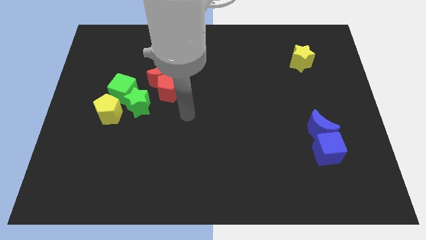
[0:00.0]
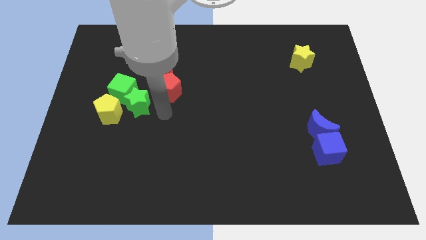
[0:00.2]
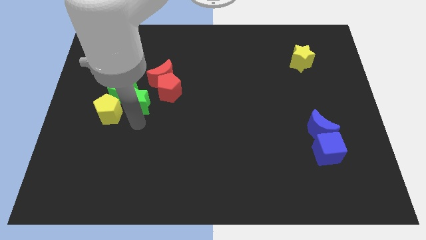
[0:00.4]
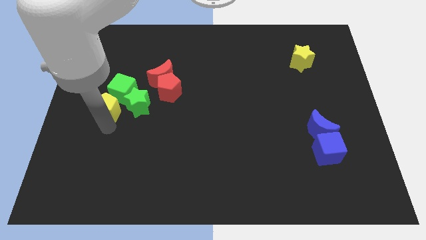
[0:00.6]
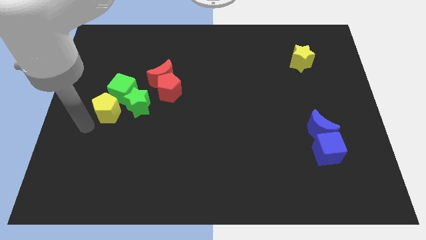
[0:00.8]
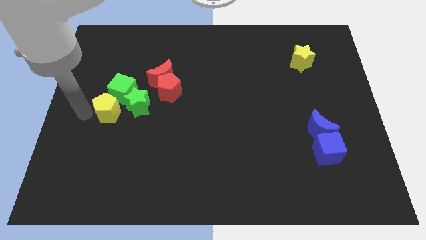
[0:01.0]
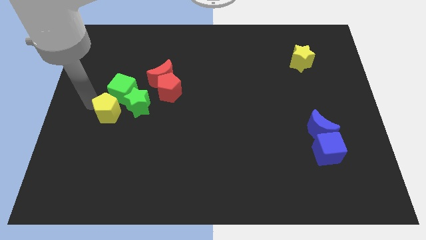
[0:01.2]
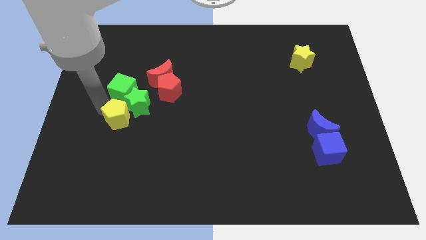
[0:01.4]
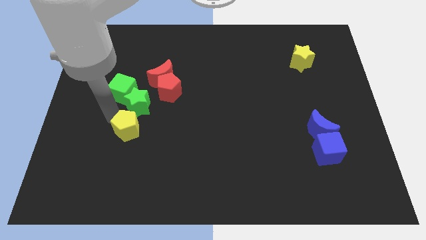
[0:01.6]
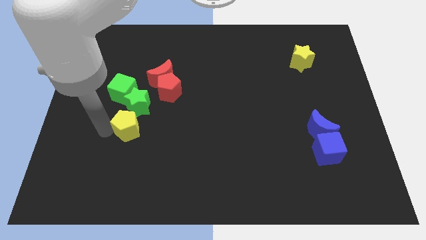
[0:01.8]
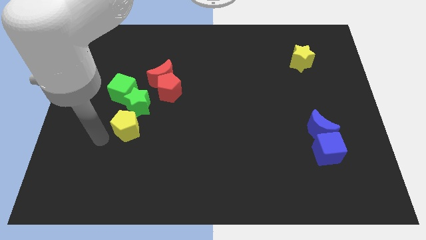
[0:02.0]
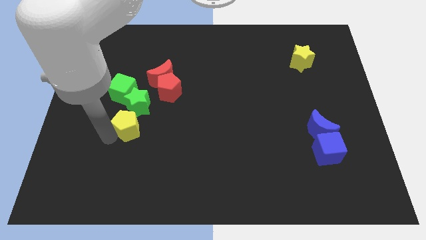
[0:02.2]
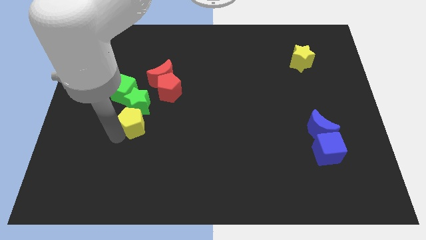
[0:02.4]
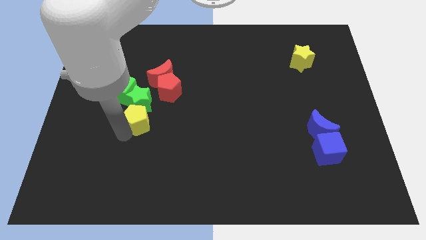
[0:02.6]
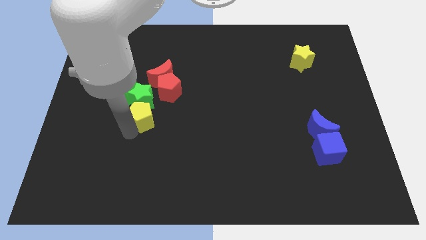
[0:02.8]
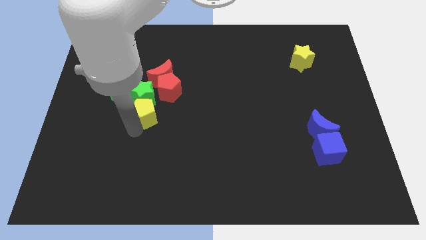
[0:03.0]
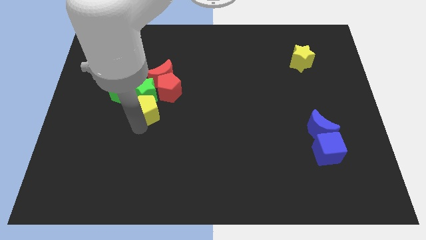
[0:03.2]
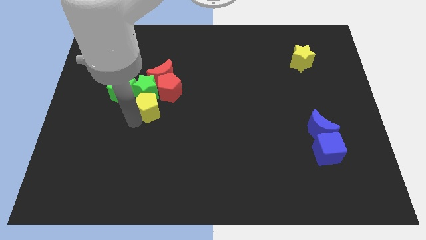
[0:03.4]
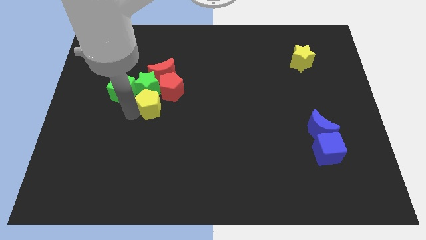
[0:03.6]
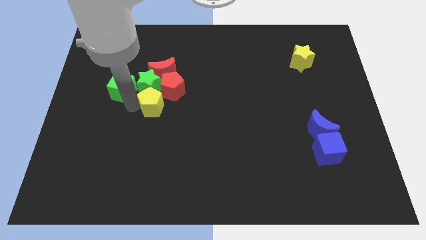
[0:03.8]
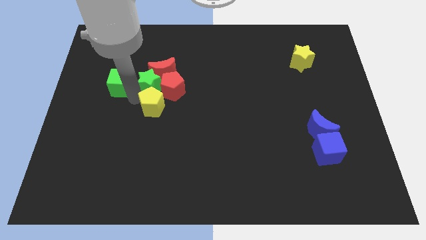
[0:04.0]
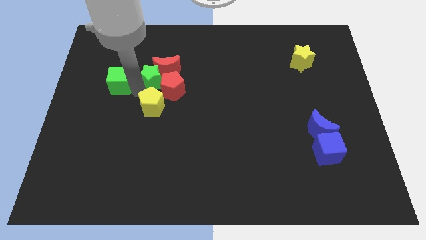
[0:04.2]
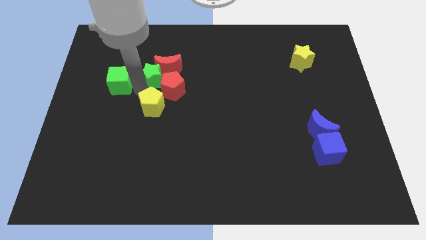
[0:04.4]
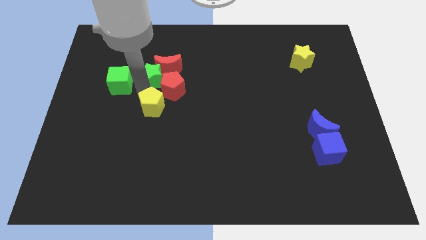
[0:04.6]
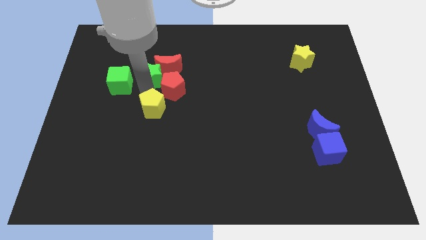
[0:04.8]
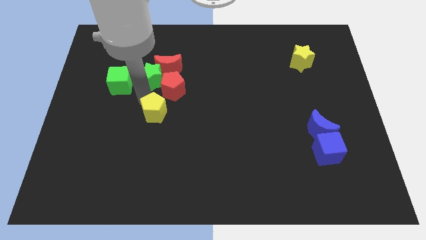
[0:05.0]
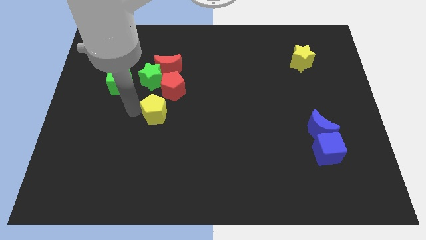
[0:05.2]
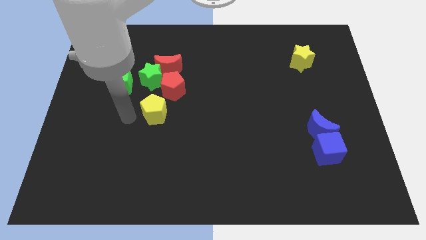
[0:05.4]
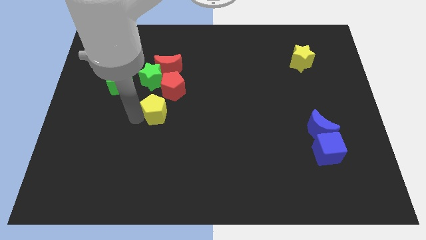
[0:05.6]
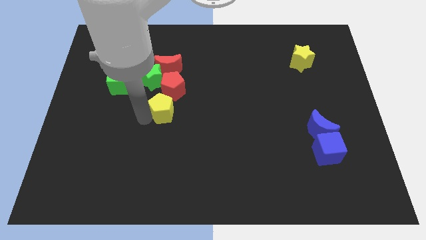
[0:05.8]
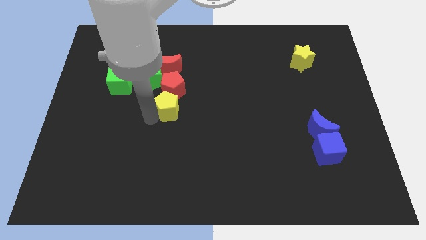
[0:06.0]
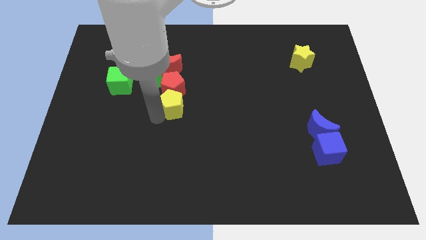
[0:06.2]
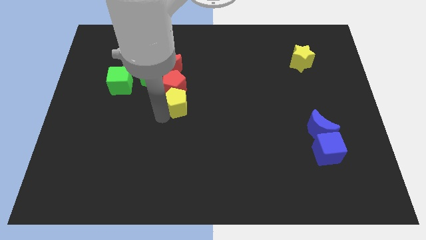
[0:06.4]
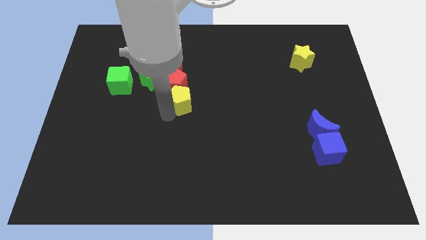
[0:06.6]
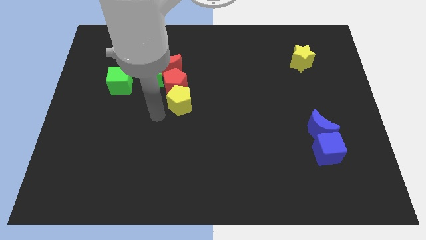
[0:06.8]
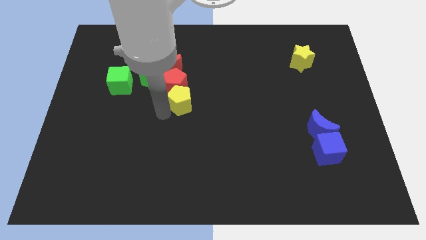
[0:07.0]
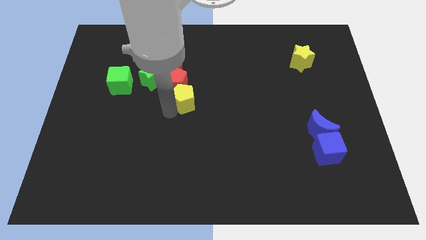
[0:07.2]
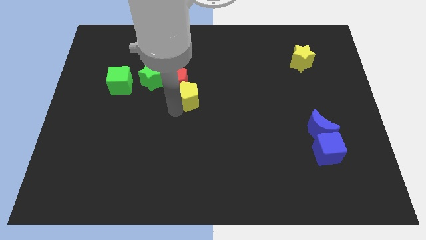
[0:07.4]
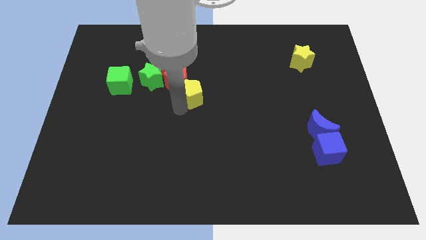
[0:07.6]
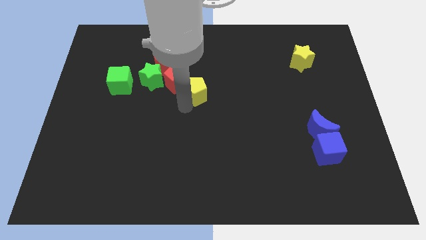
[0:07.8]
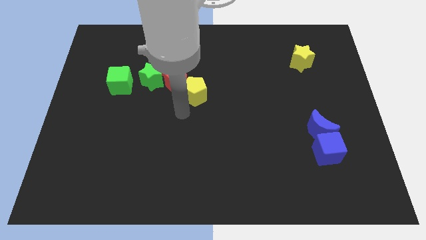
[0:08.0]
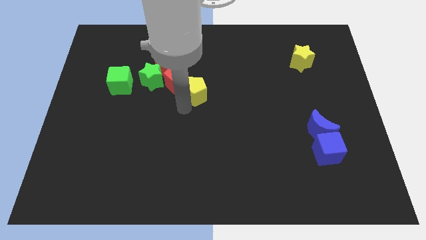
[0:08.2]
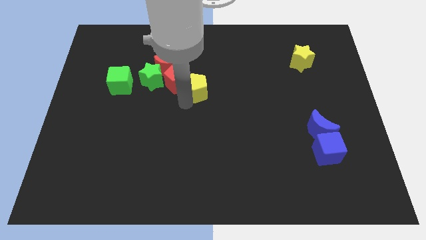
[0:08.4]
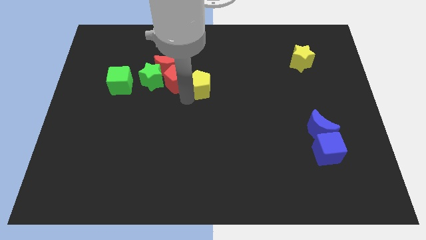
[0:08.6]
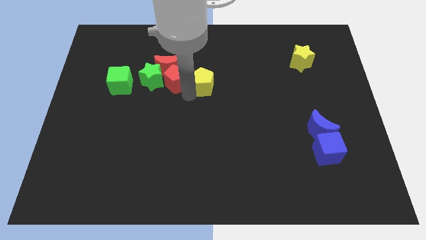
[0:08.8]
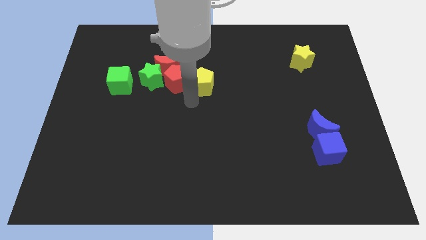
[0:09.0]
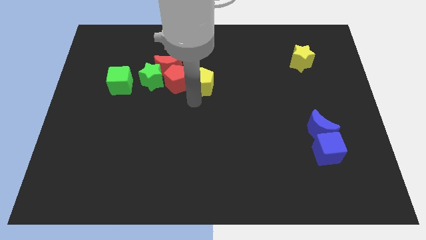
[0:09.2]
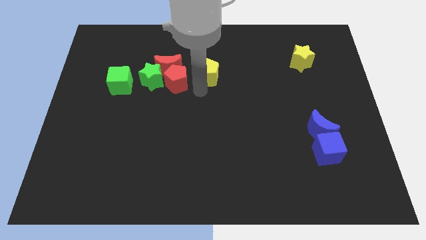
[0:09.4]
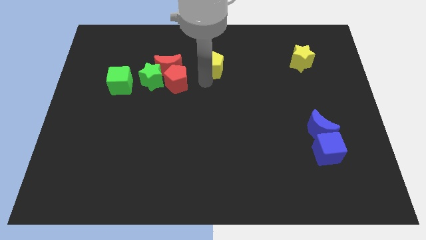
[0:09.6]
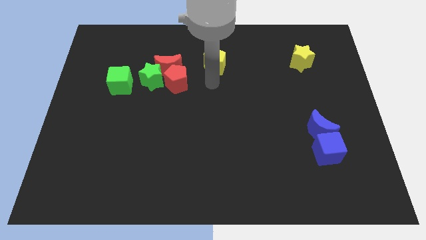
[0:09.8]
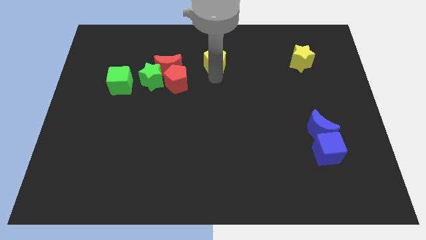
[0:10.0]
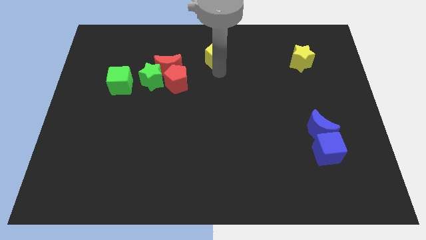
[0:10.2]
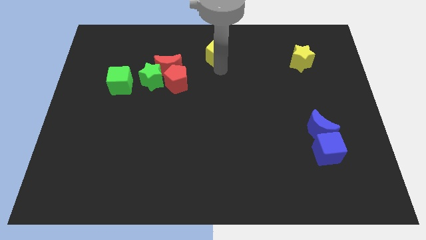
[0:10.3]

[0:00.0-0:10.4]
slide the yellow pentagon to the towards your base

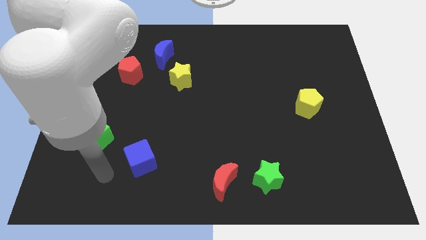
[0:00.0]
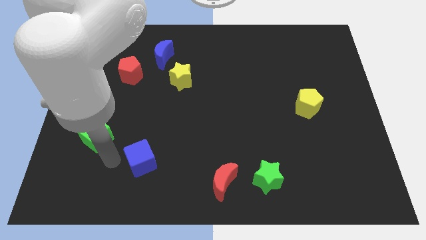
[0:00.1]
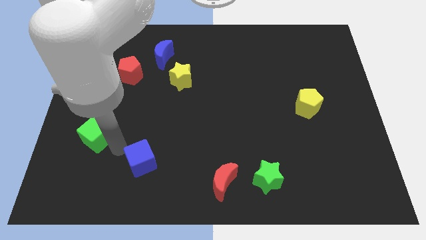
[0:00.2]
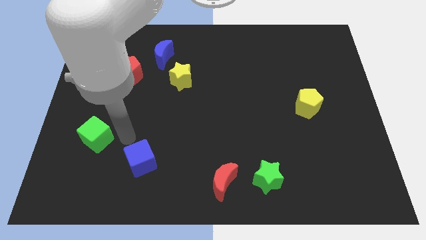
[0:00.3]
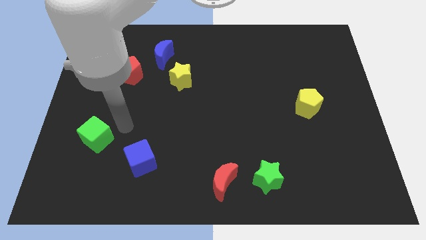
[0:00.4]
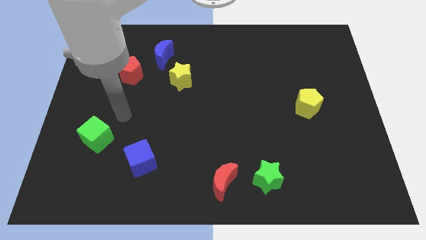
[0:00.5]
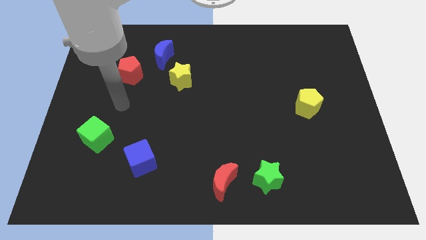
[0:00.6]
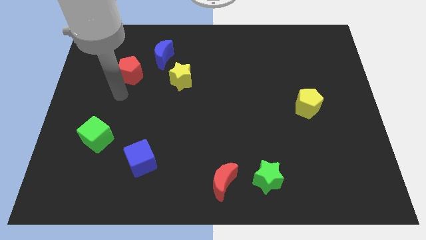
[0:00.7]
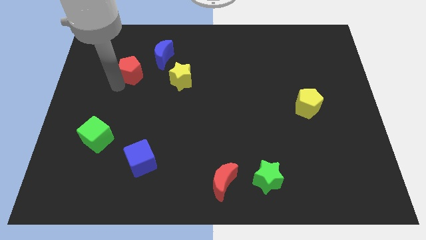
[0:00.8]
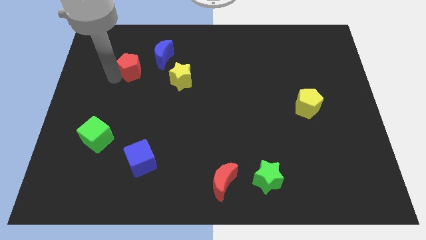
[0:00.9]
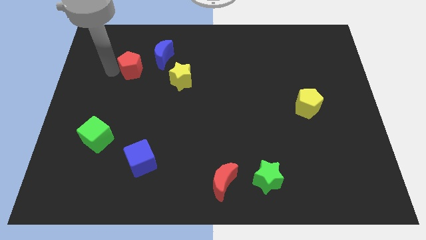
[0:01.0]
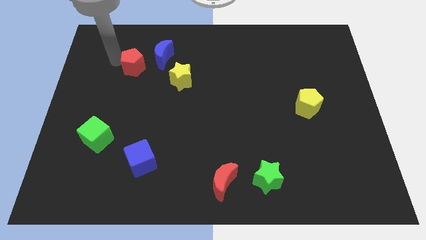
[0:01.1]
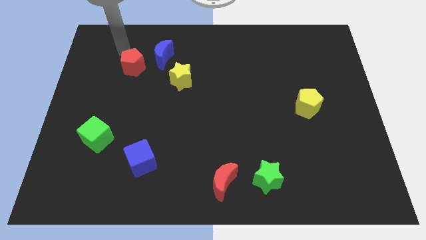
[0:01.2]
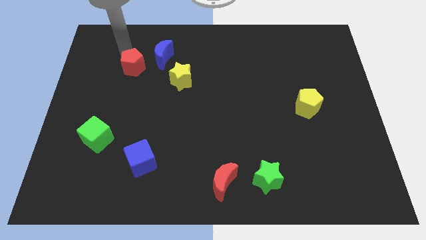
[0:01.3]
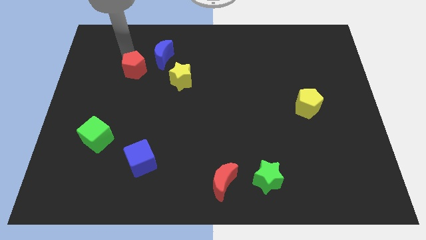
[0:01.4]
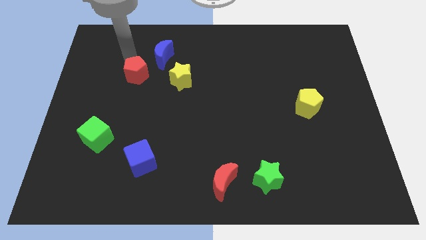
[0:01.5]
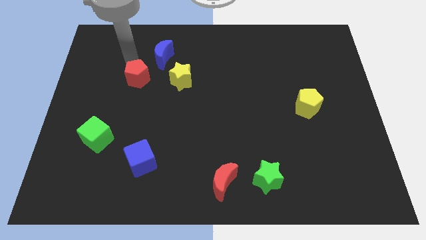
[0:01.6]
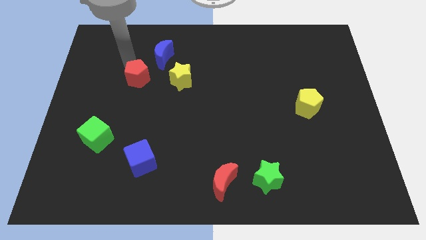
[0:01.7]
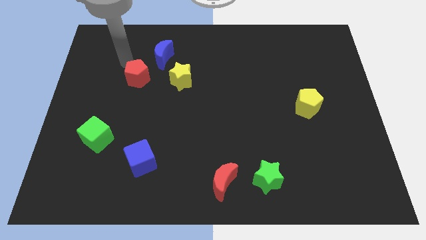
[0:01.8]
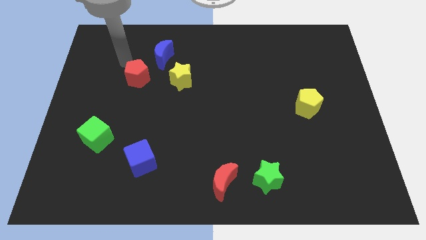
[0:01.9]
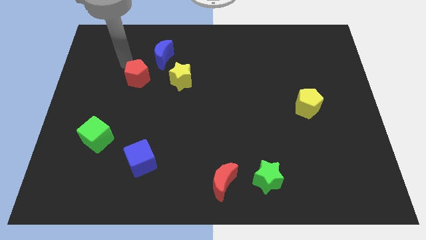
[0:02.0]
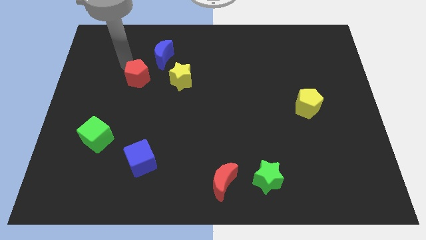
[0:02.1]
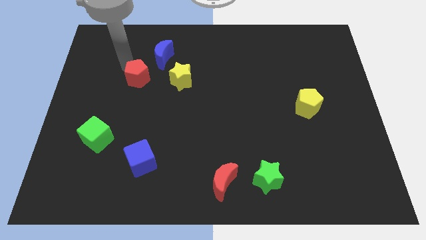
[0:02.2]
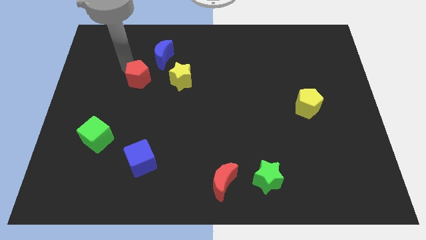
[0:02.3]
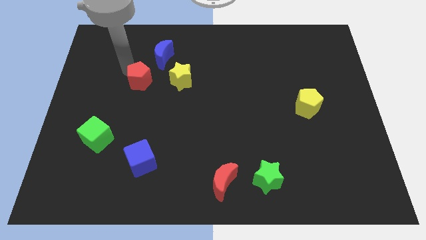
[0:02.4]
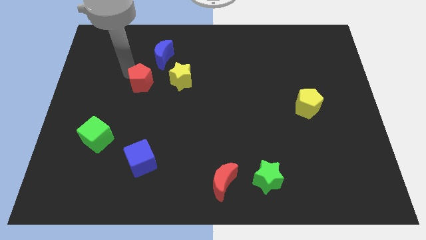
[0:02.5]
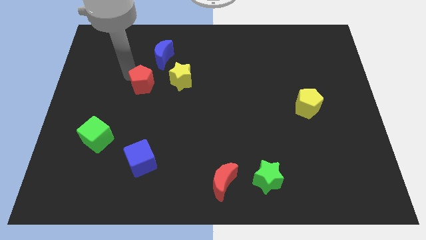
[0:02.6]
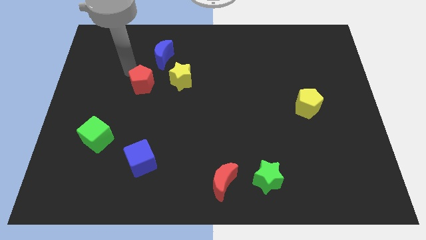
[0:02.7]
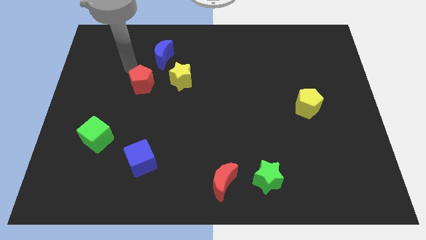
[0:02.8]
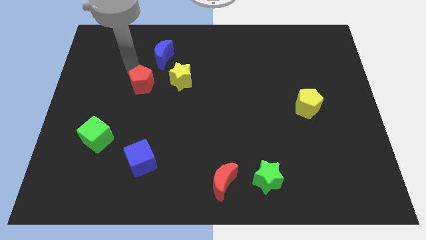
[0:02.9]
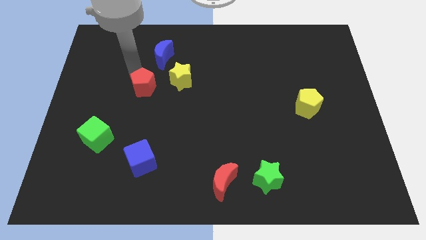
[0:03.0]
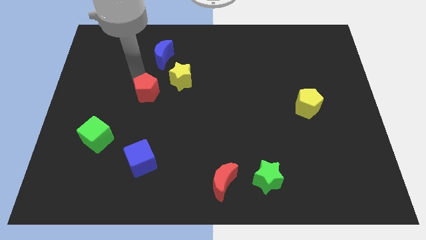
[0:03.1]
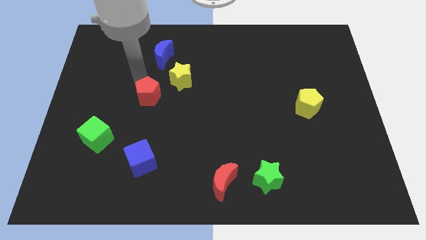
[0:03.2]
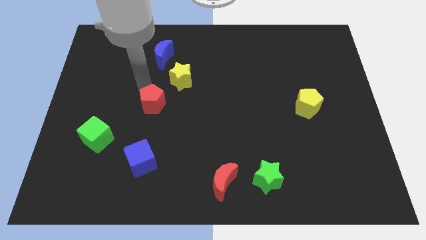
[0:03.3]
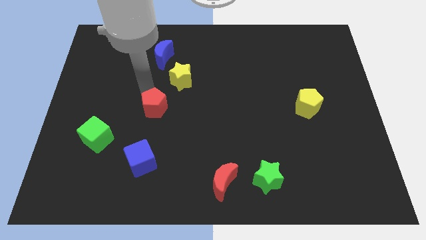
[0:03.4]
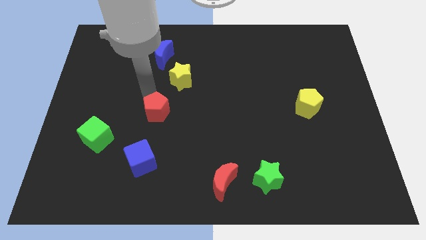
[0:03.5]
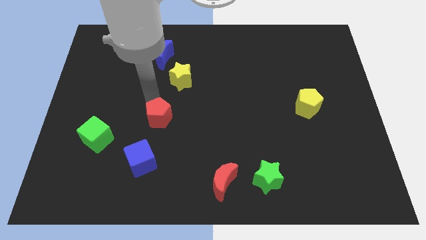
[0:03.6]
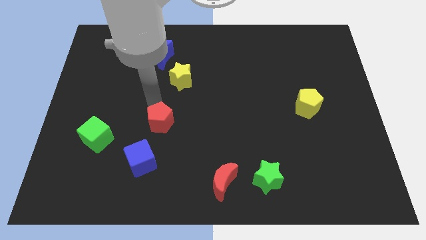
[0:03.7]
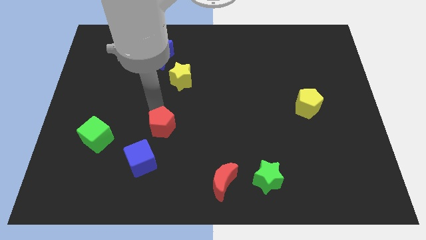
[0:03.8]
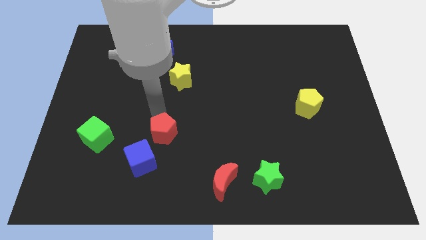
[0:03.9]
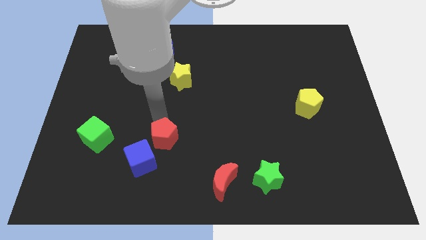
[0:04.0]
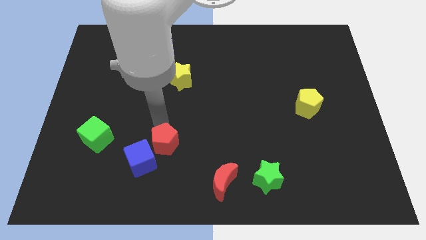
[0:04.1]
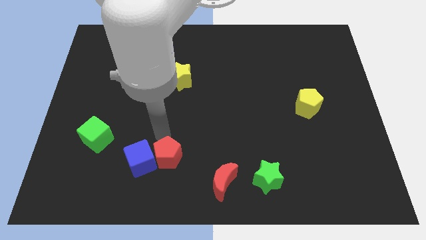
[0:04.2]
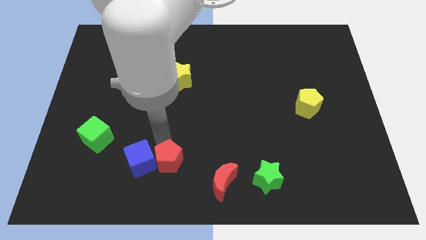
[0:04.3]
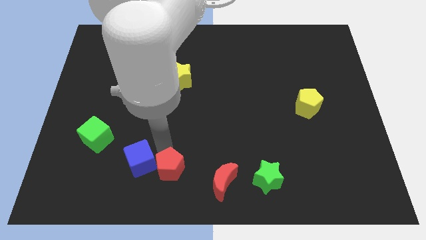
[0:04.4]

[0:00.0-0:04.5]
push the red pentagon to the bottom side
